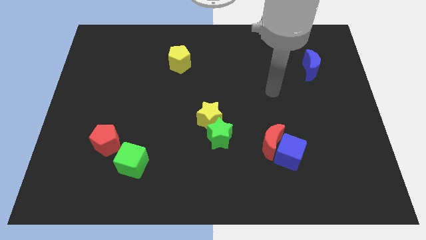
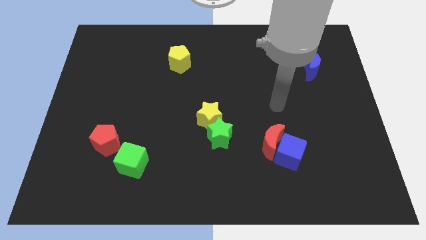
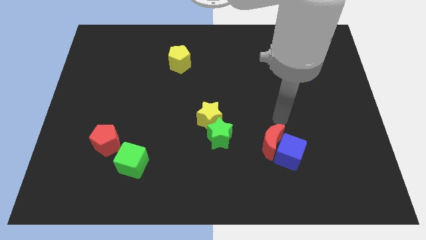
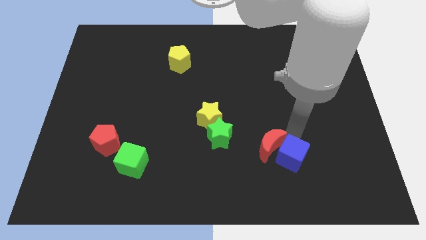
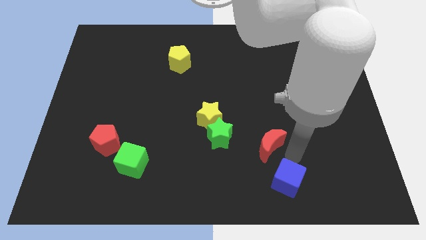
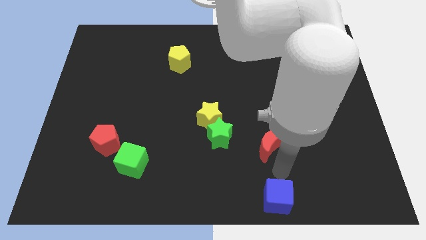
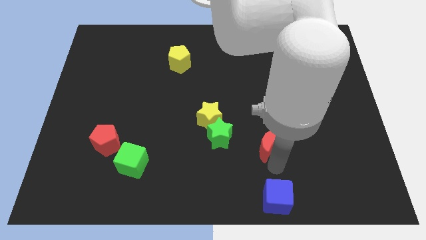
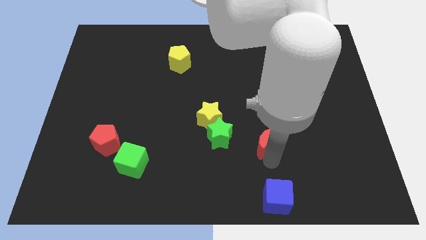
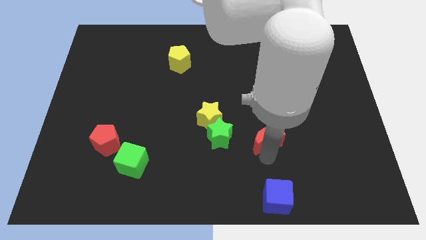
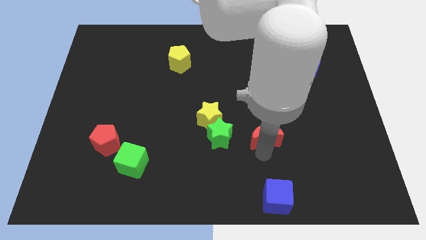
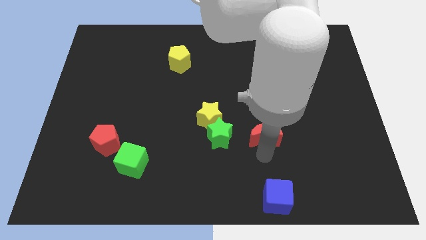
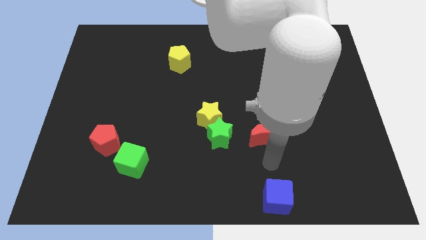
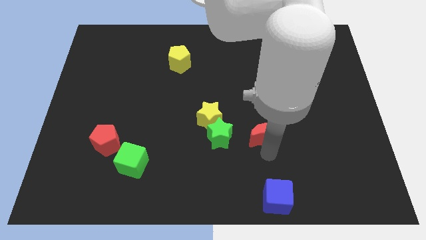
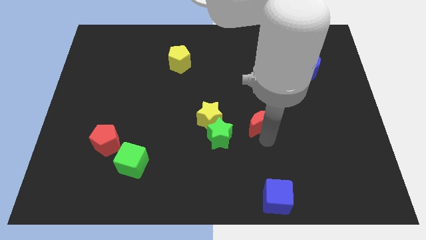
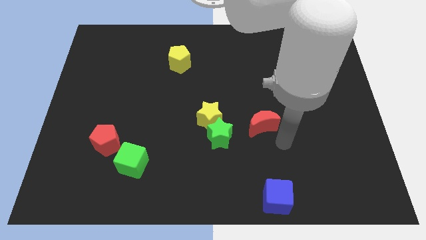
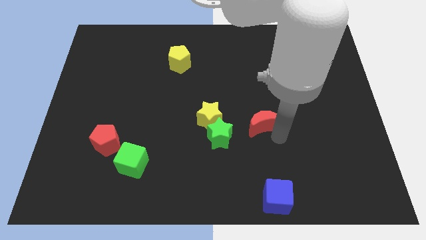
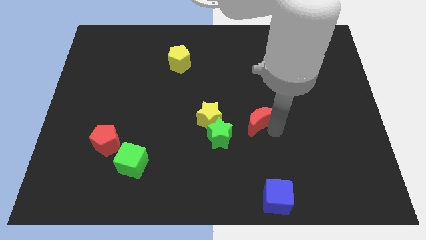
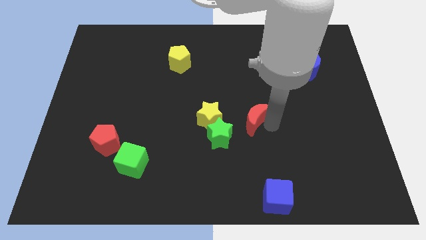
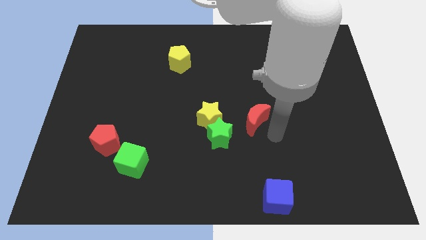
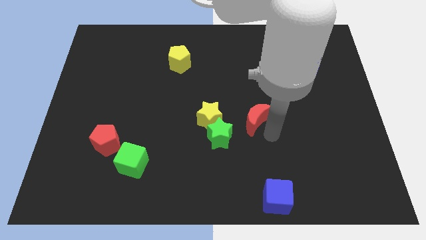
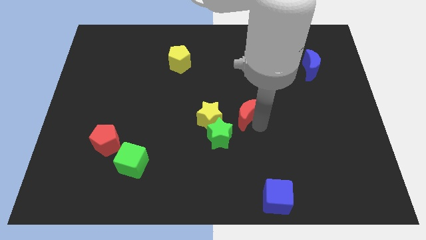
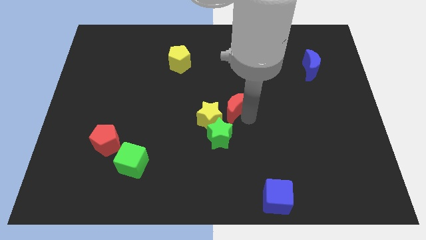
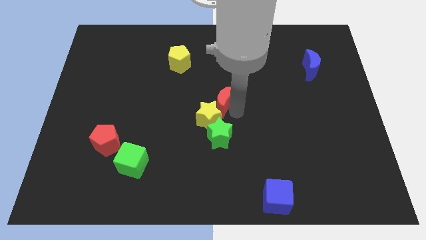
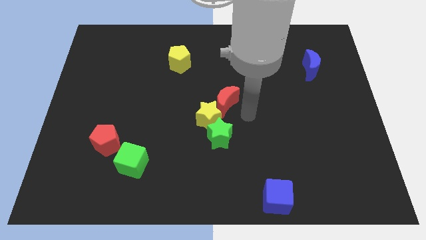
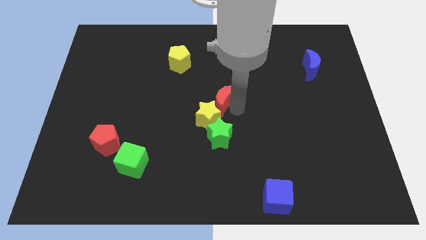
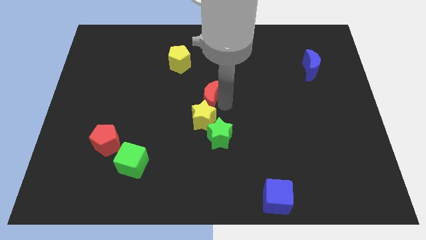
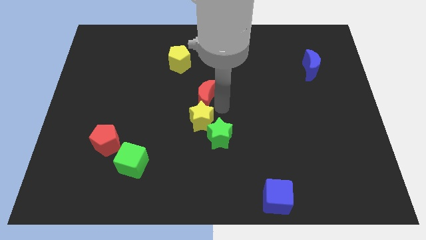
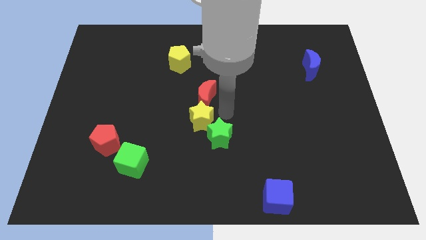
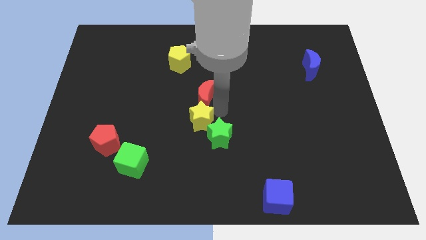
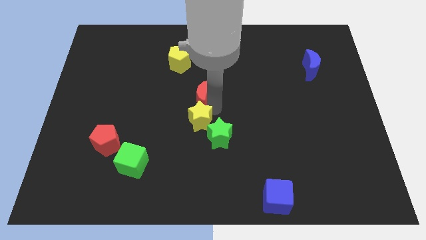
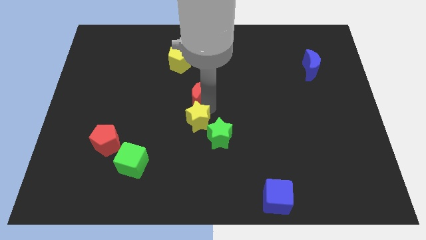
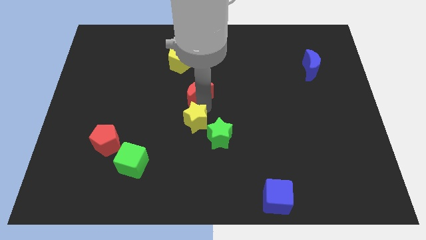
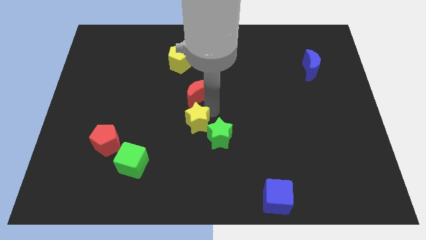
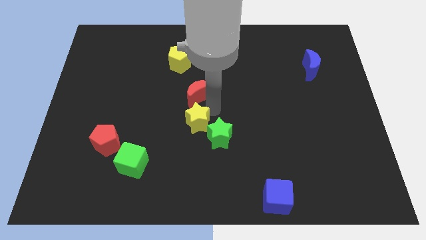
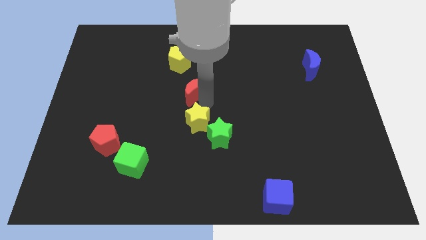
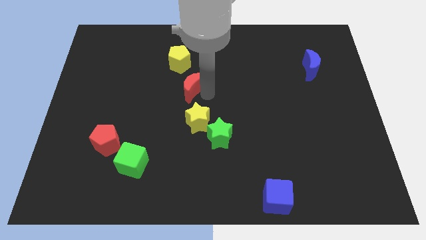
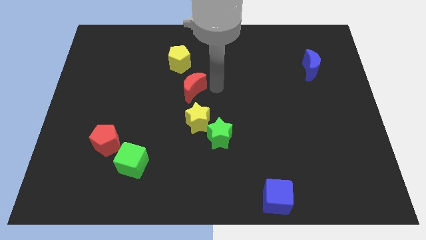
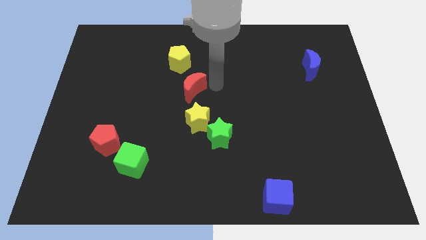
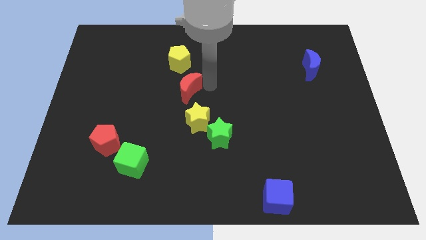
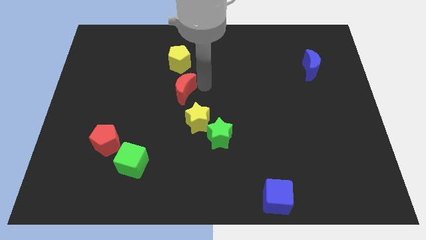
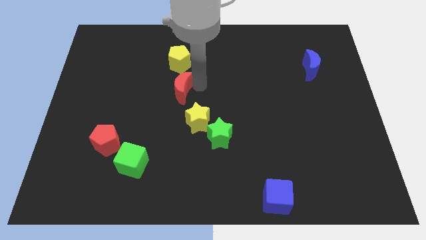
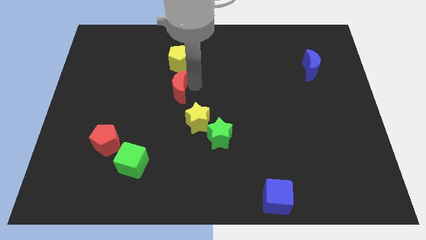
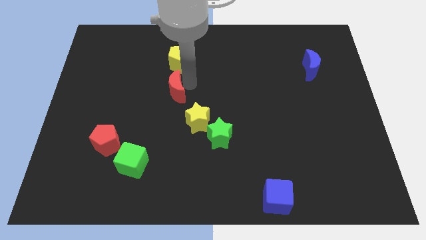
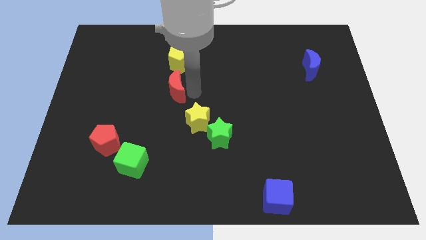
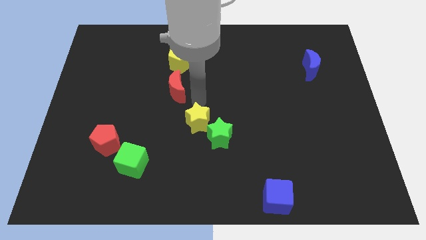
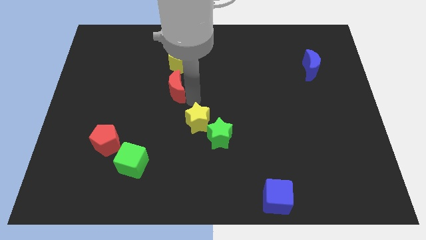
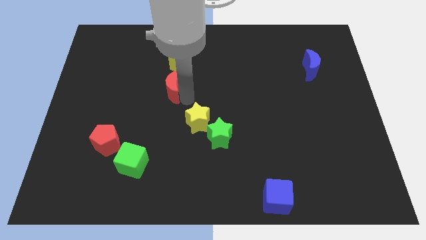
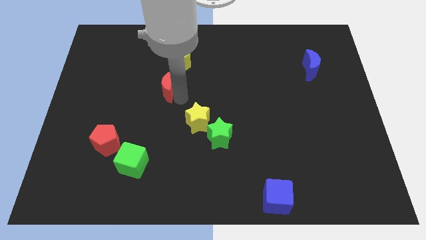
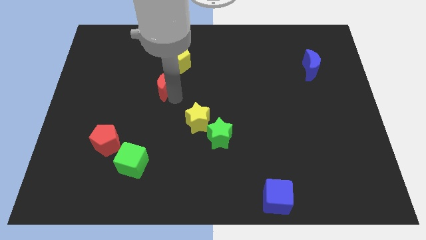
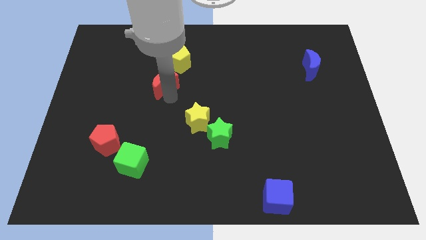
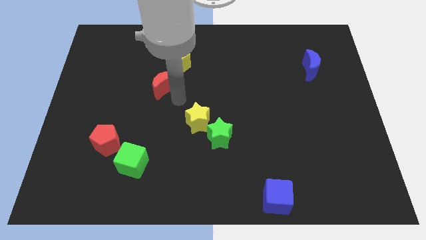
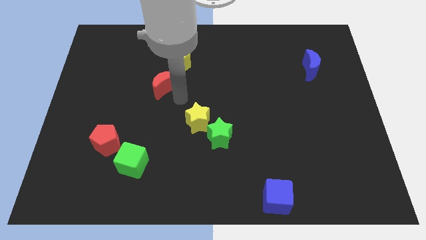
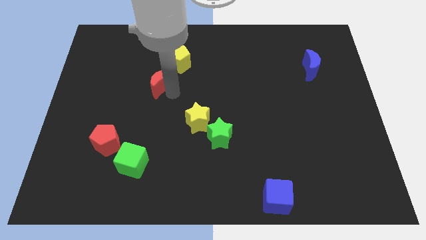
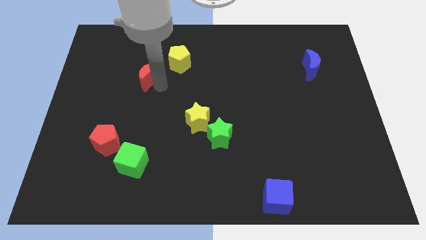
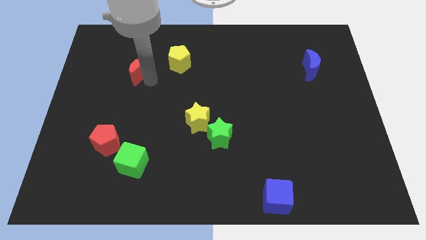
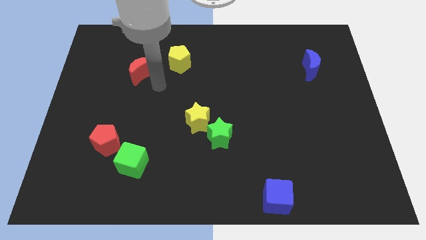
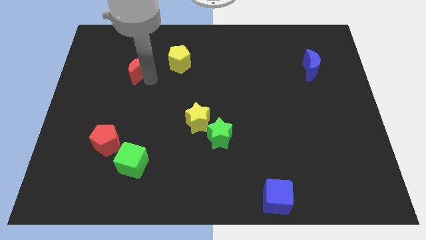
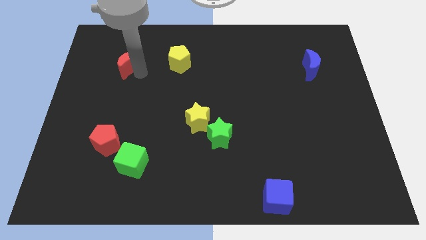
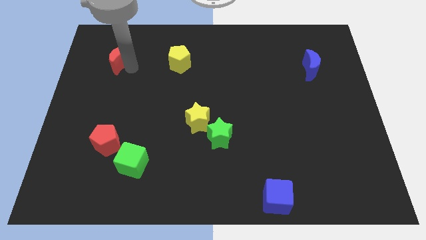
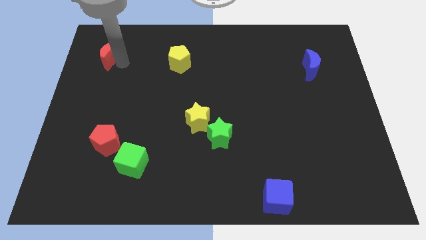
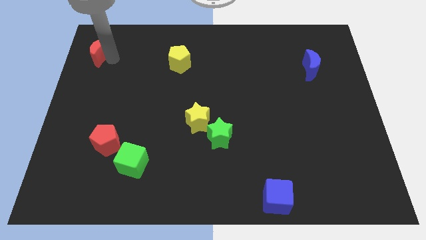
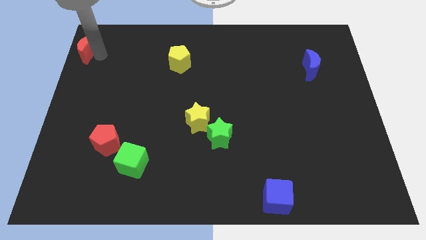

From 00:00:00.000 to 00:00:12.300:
push the red moon to the top left
